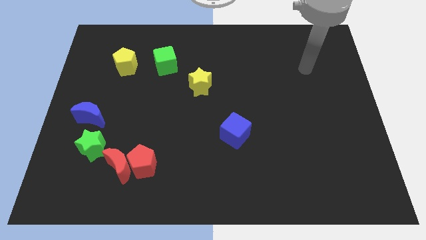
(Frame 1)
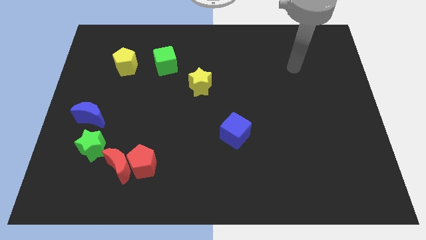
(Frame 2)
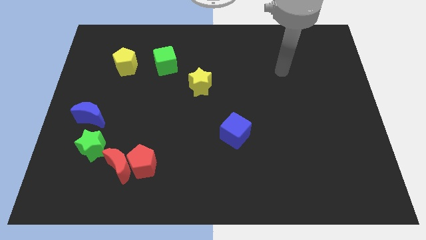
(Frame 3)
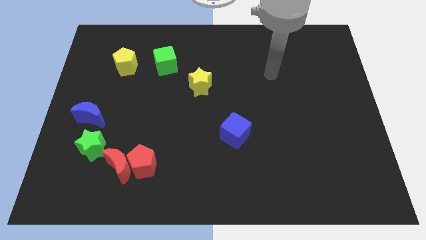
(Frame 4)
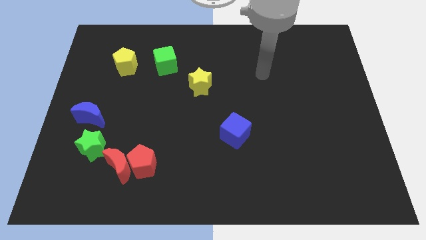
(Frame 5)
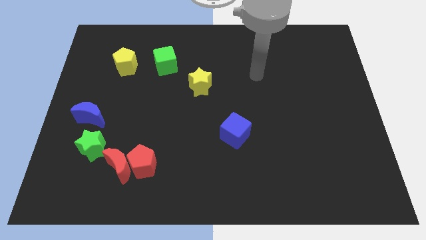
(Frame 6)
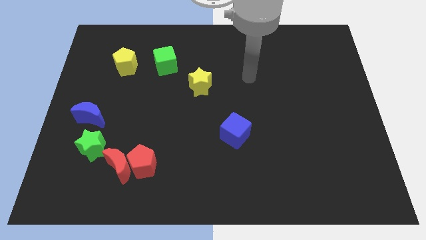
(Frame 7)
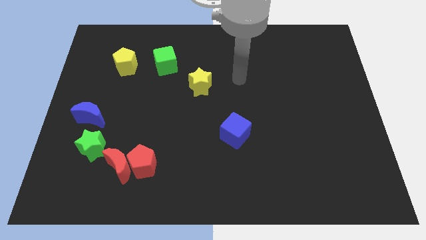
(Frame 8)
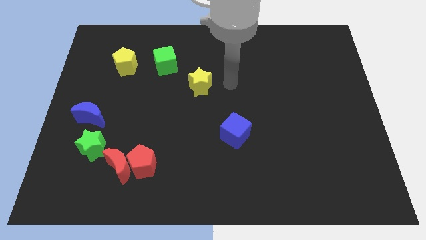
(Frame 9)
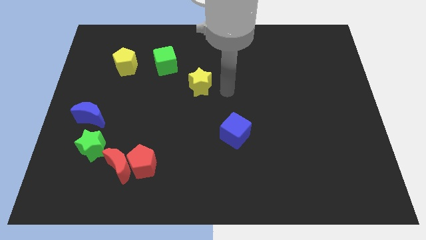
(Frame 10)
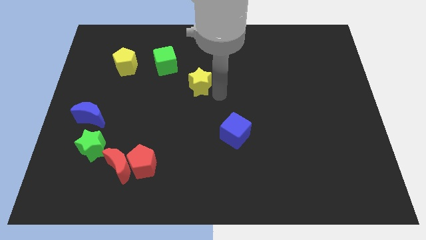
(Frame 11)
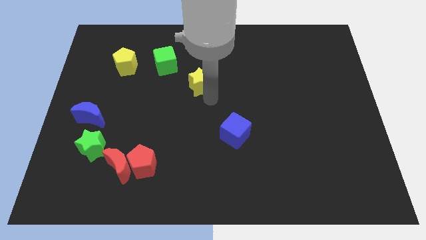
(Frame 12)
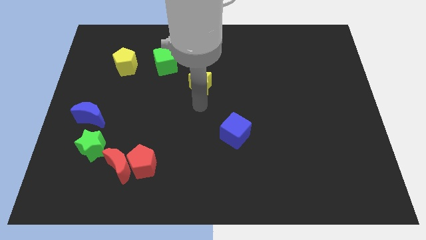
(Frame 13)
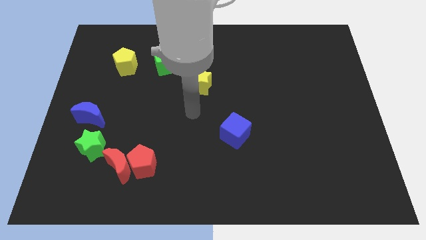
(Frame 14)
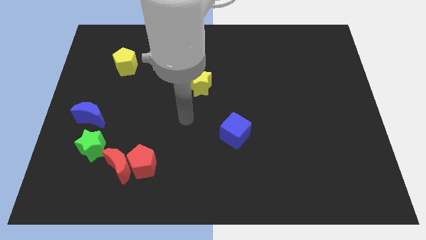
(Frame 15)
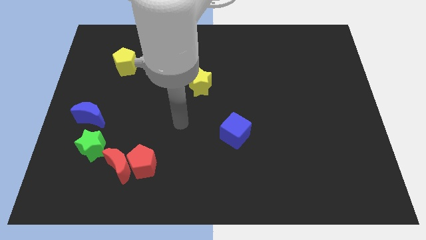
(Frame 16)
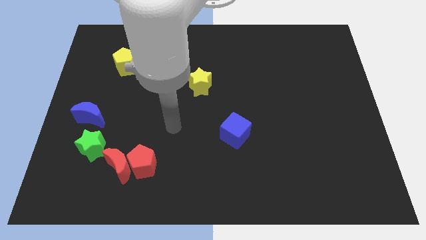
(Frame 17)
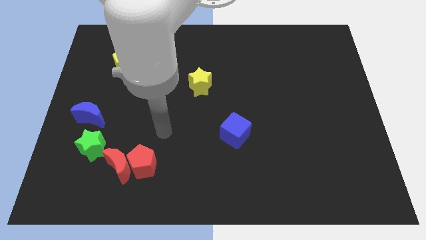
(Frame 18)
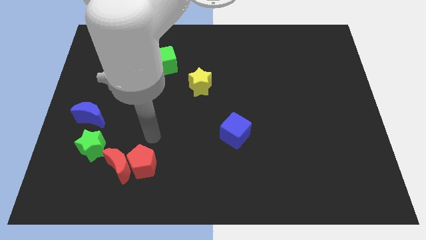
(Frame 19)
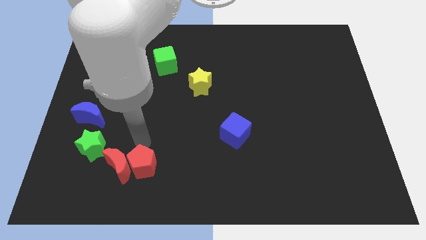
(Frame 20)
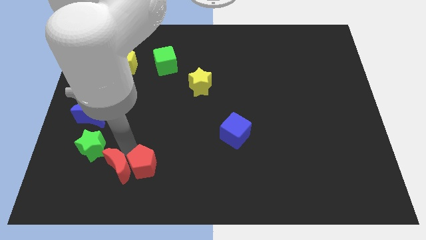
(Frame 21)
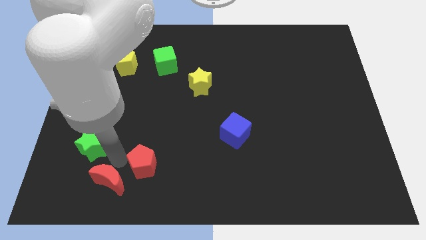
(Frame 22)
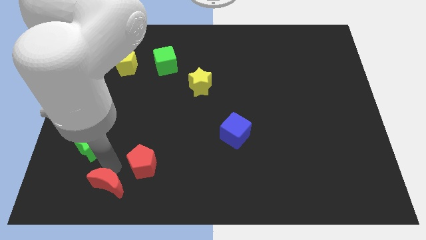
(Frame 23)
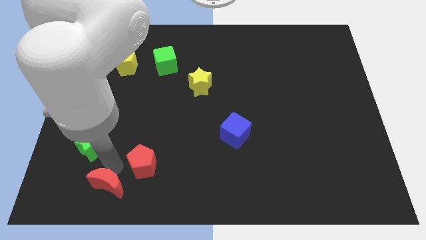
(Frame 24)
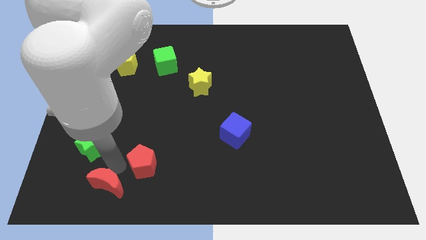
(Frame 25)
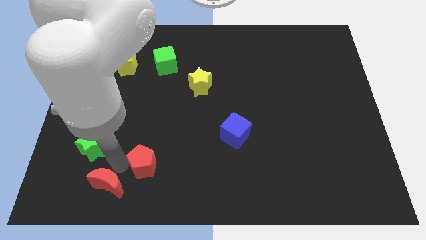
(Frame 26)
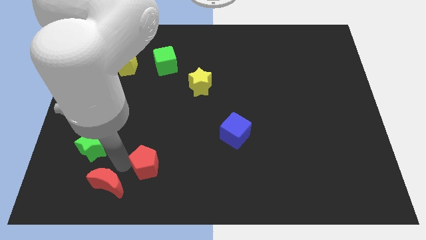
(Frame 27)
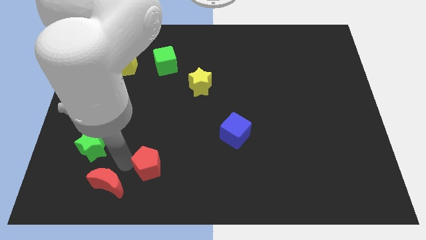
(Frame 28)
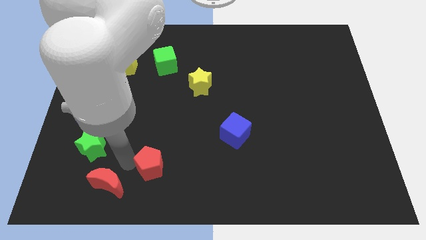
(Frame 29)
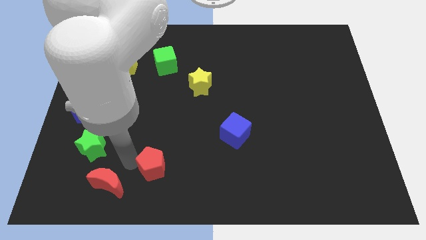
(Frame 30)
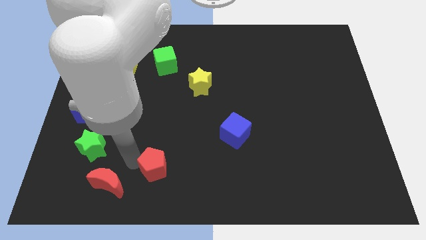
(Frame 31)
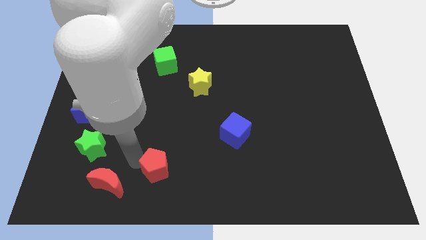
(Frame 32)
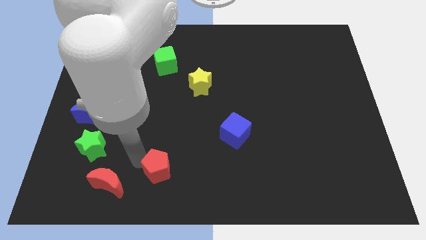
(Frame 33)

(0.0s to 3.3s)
separate the red pentagon from the red moon

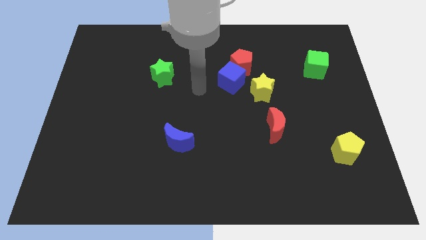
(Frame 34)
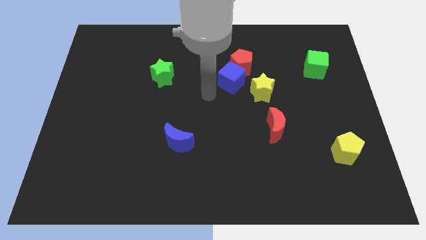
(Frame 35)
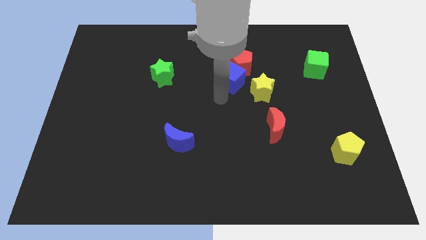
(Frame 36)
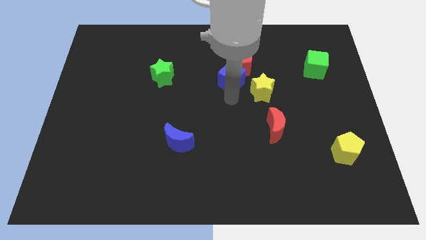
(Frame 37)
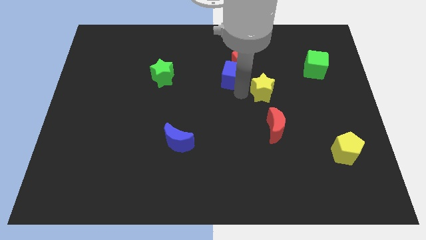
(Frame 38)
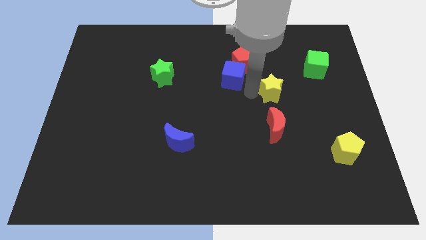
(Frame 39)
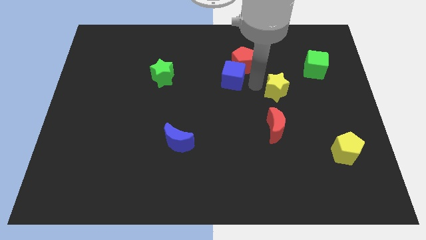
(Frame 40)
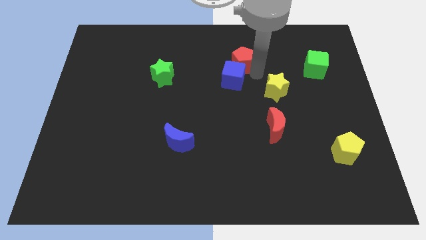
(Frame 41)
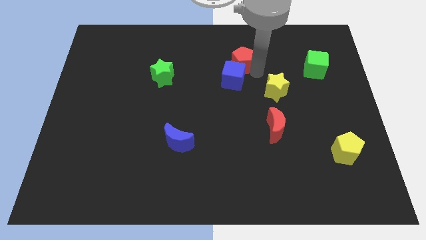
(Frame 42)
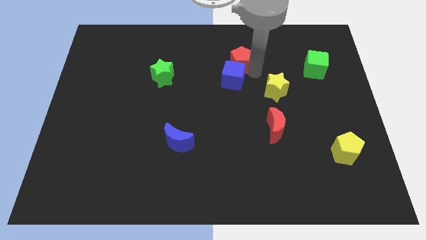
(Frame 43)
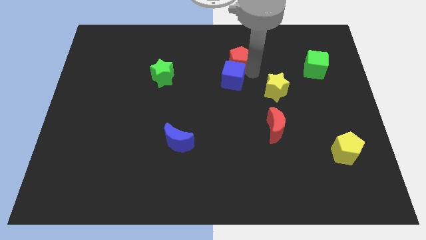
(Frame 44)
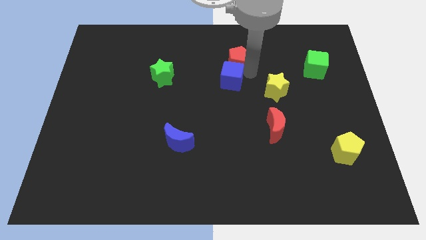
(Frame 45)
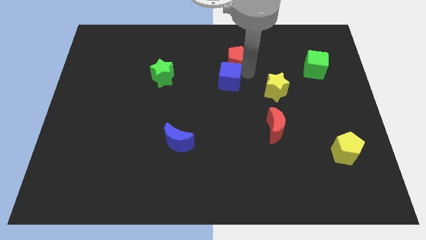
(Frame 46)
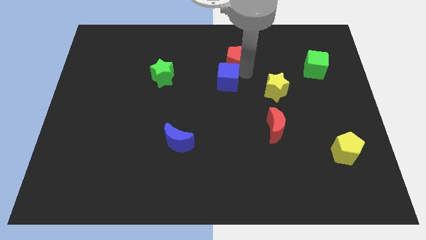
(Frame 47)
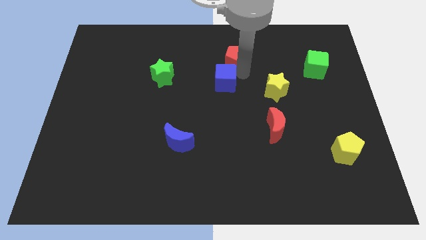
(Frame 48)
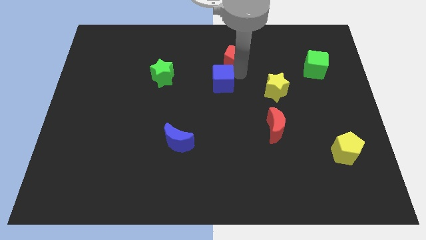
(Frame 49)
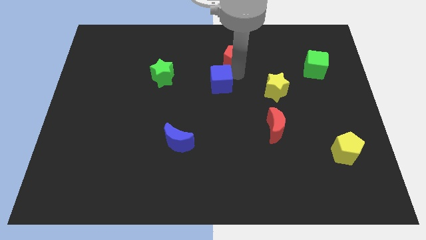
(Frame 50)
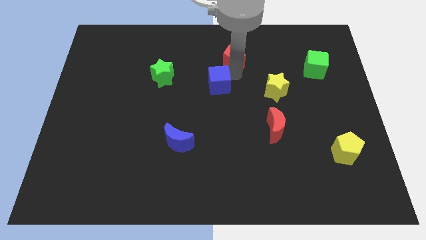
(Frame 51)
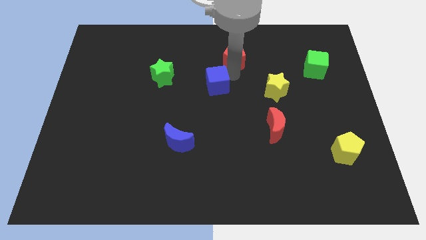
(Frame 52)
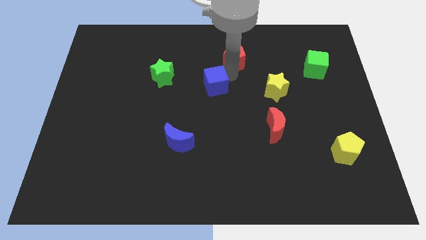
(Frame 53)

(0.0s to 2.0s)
move the blue cube away from the red pentagon and yellow star

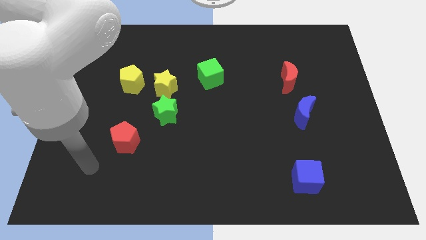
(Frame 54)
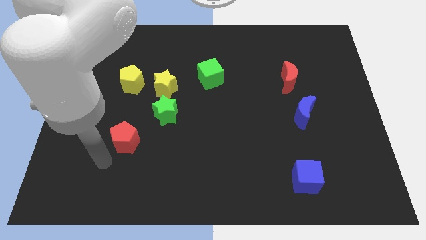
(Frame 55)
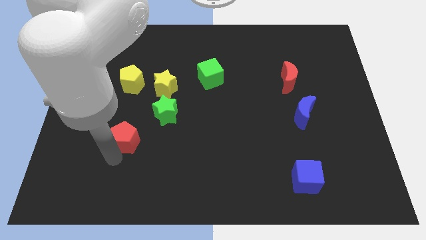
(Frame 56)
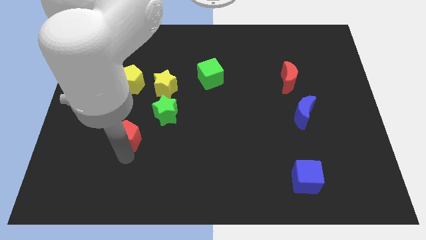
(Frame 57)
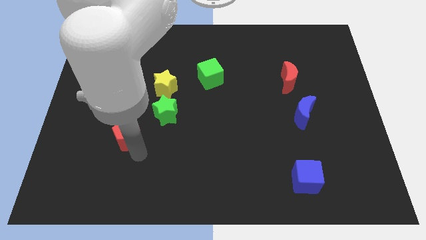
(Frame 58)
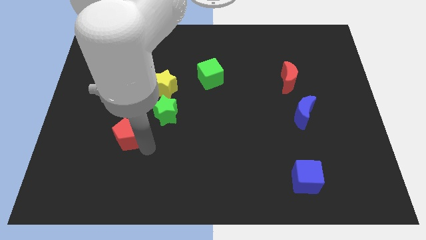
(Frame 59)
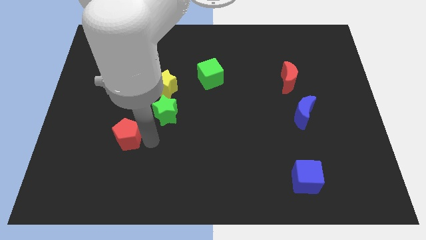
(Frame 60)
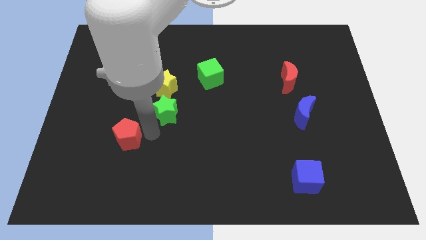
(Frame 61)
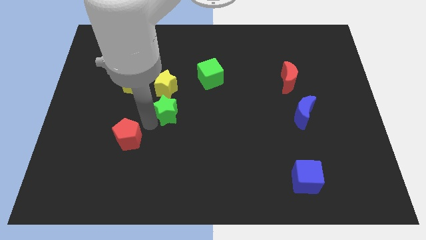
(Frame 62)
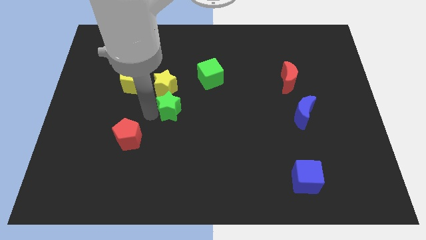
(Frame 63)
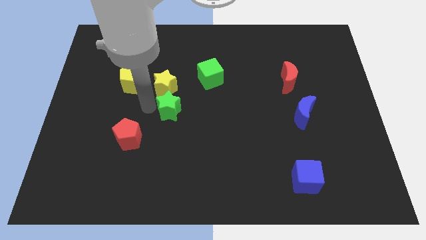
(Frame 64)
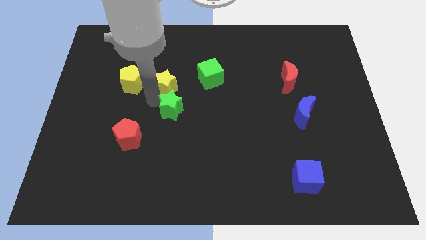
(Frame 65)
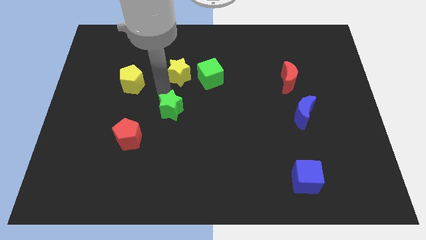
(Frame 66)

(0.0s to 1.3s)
separate the green star from the yellow star

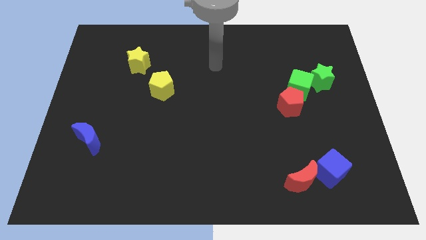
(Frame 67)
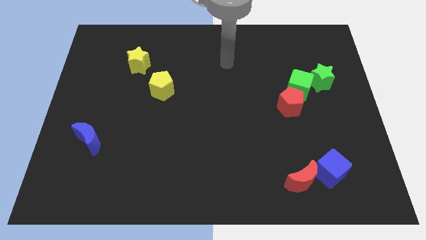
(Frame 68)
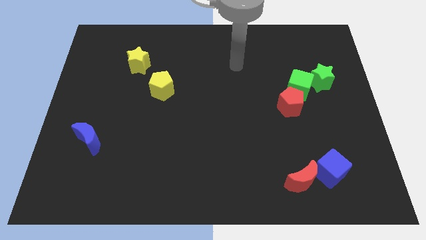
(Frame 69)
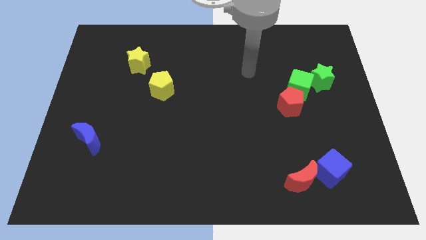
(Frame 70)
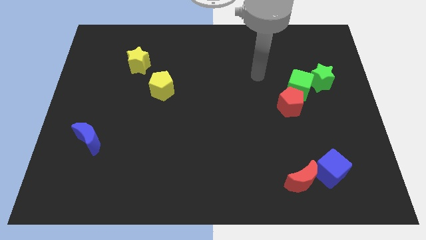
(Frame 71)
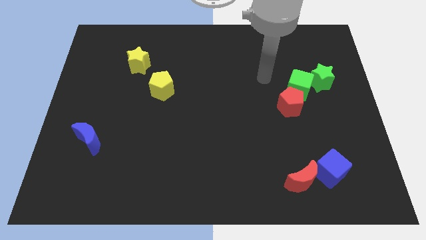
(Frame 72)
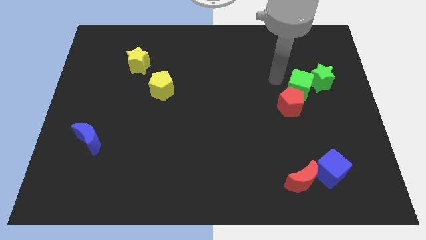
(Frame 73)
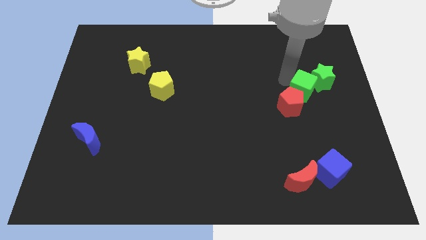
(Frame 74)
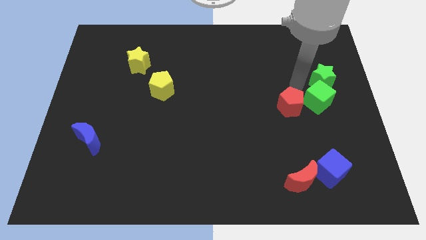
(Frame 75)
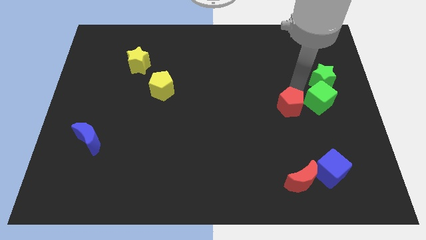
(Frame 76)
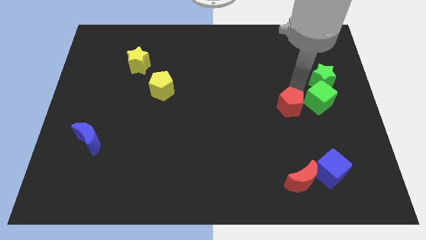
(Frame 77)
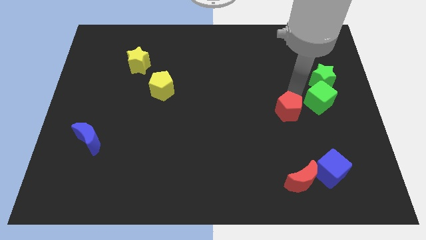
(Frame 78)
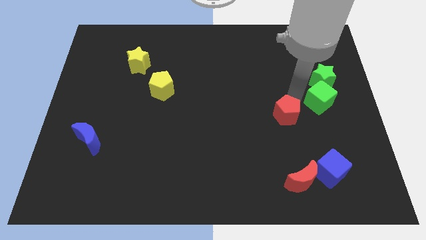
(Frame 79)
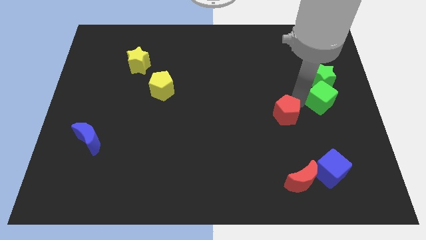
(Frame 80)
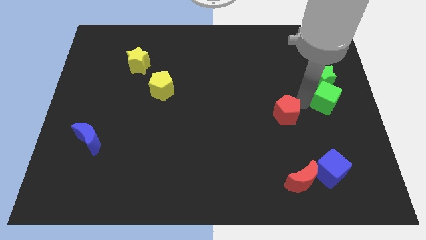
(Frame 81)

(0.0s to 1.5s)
pull the red pentagon apart from the green cube

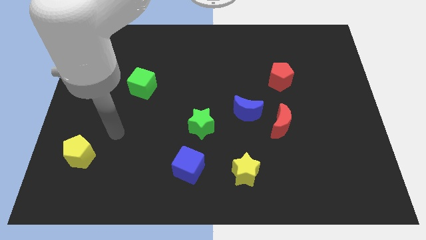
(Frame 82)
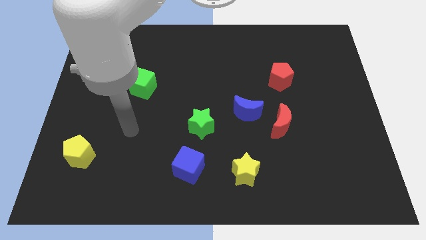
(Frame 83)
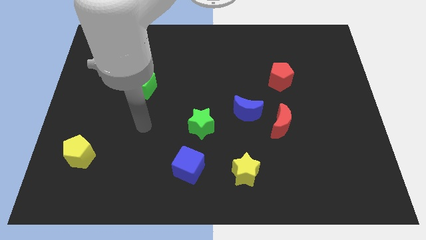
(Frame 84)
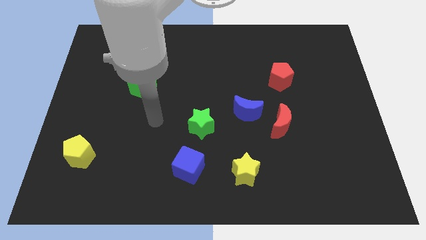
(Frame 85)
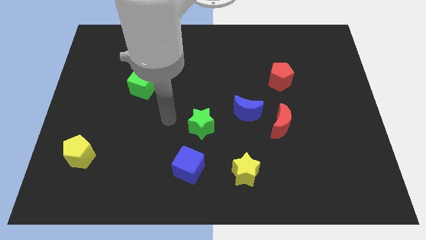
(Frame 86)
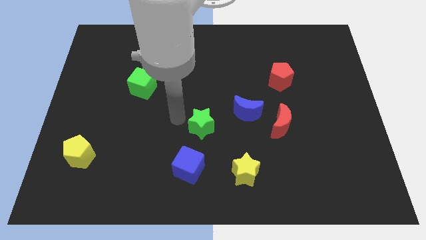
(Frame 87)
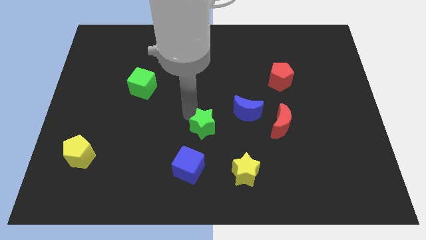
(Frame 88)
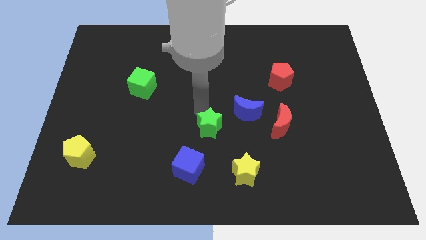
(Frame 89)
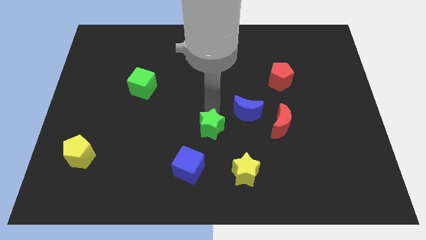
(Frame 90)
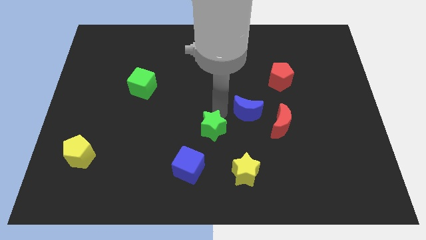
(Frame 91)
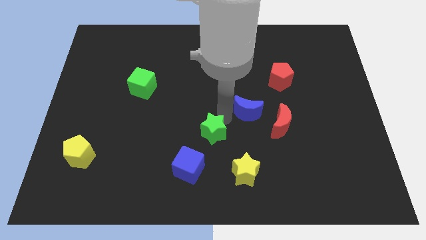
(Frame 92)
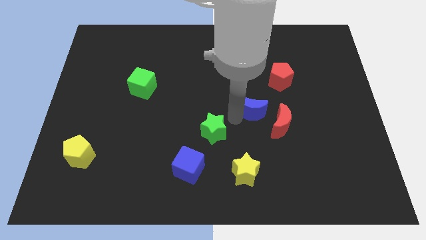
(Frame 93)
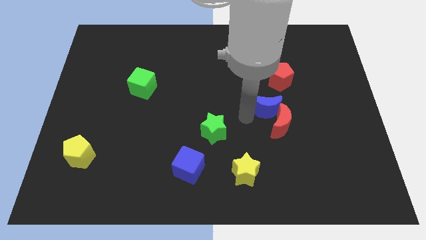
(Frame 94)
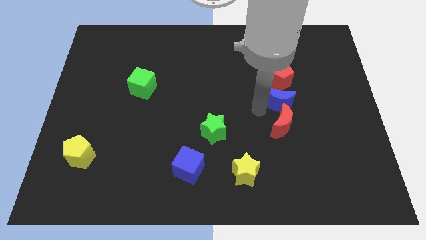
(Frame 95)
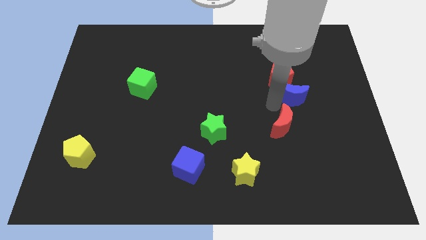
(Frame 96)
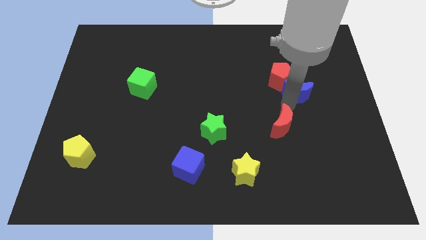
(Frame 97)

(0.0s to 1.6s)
separate the red moon from the blue moon
